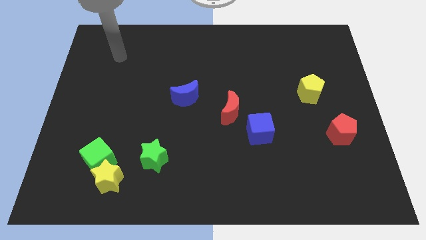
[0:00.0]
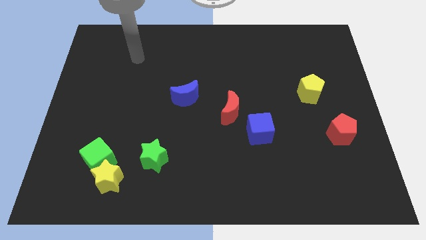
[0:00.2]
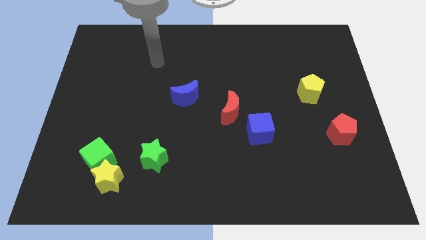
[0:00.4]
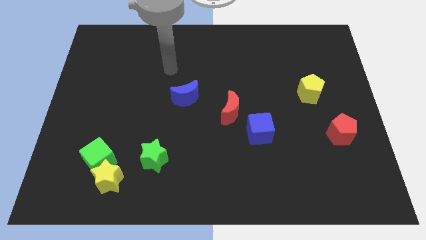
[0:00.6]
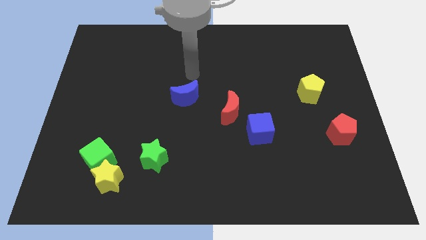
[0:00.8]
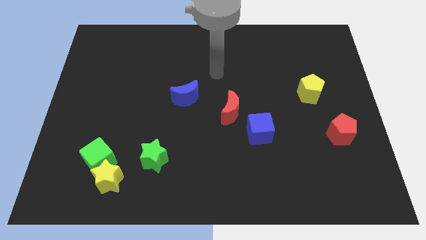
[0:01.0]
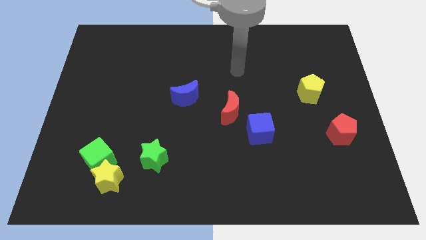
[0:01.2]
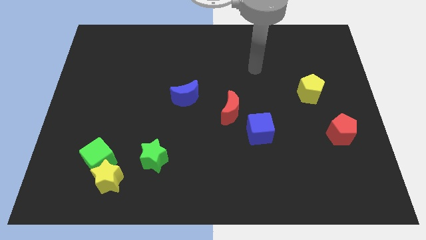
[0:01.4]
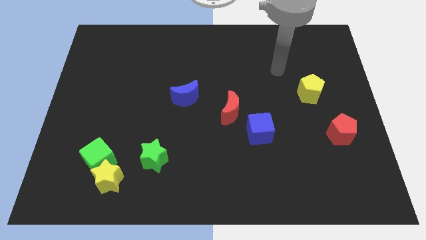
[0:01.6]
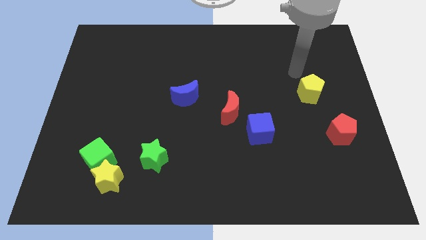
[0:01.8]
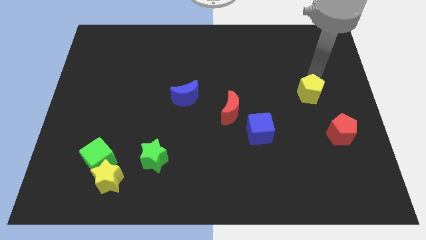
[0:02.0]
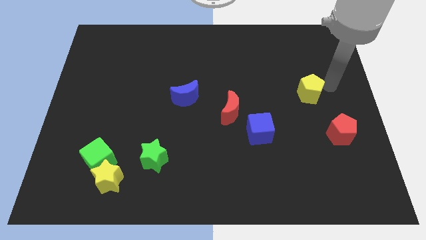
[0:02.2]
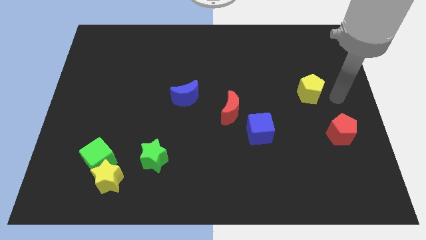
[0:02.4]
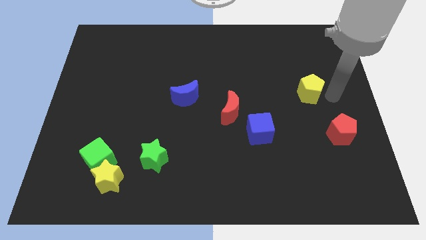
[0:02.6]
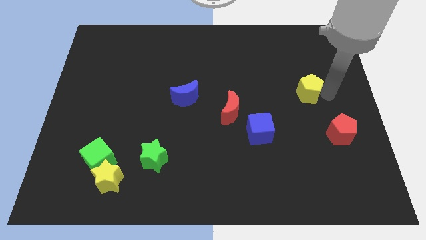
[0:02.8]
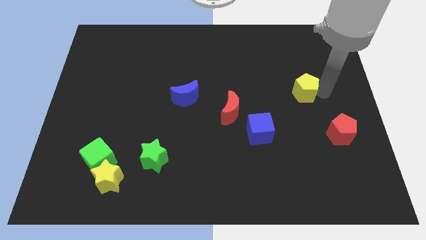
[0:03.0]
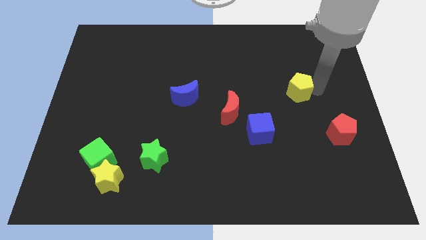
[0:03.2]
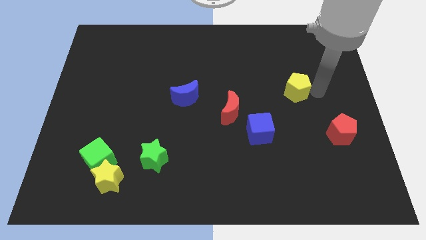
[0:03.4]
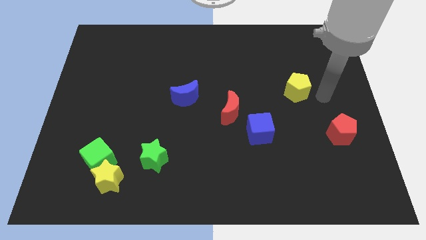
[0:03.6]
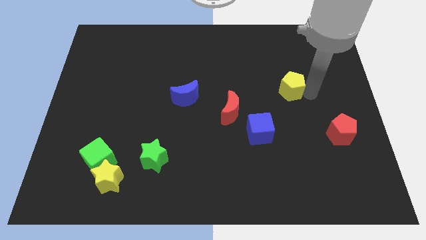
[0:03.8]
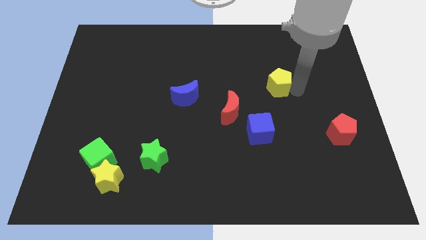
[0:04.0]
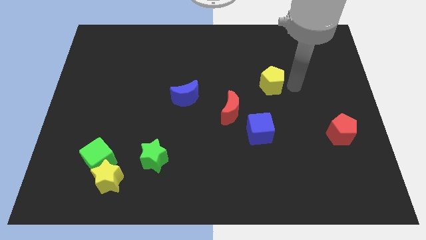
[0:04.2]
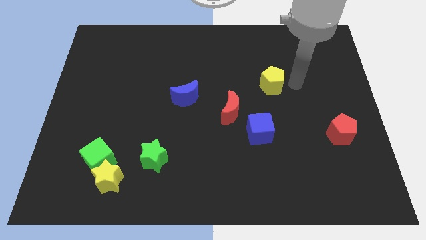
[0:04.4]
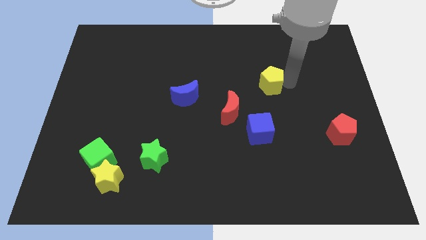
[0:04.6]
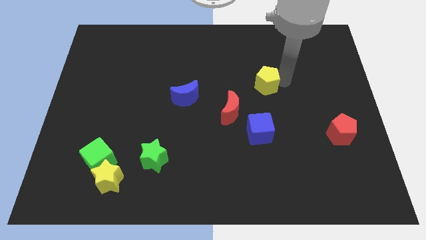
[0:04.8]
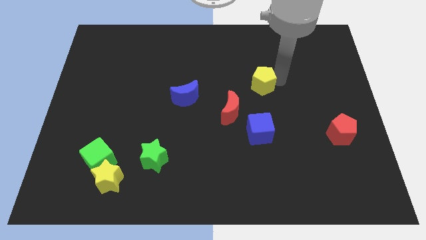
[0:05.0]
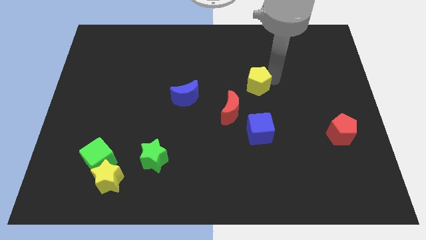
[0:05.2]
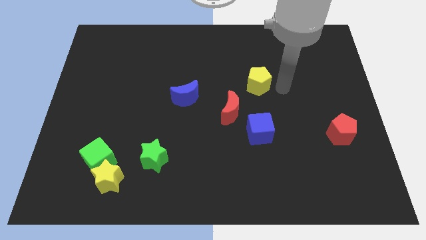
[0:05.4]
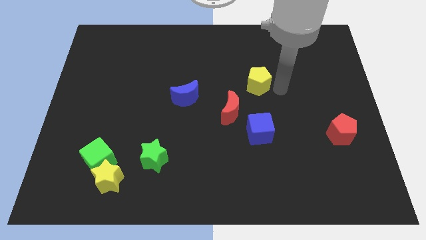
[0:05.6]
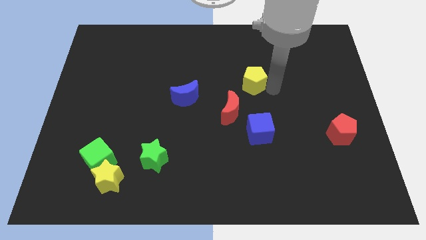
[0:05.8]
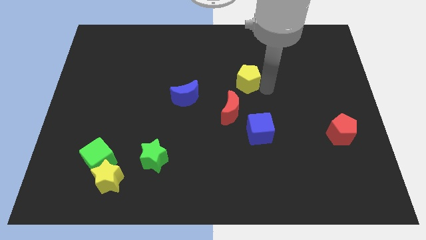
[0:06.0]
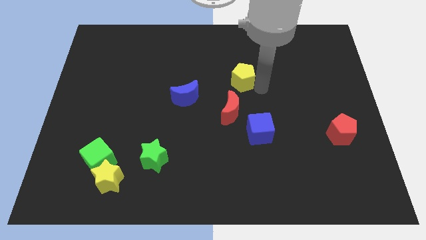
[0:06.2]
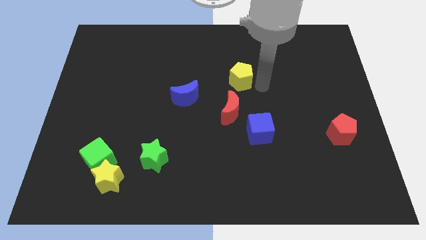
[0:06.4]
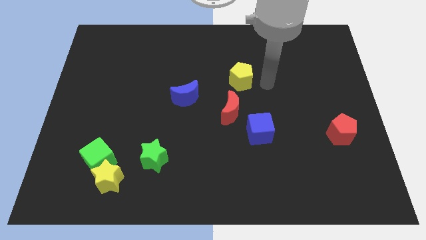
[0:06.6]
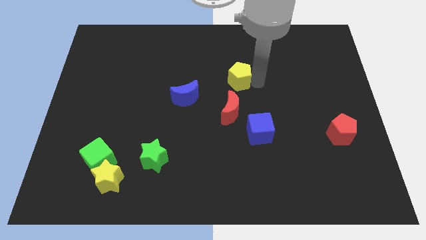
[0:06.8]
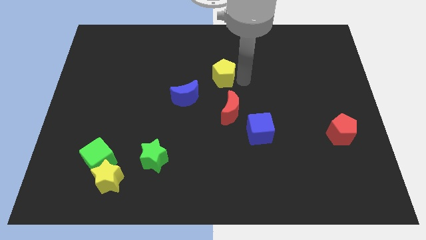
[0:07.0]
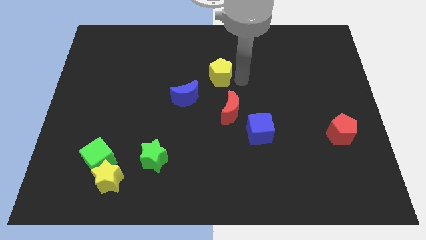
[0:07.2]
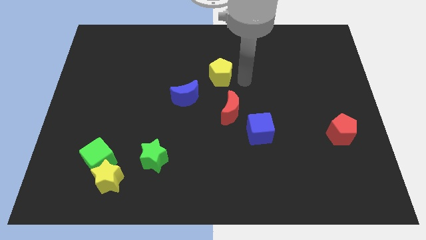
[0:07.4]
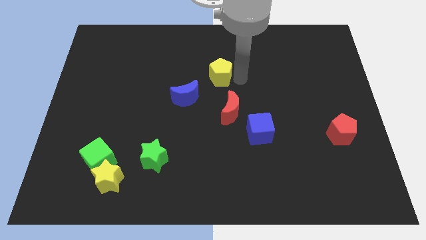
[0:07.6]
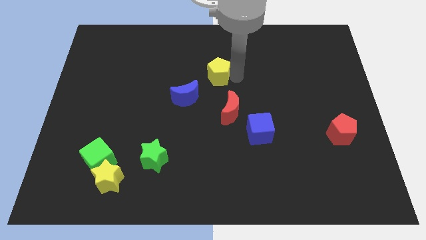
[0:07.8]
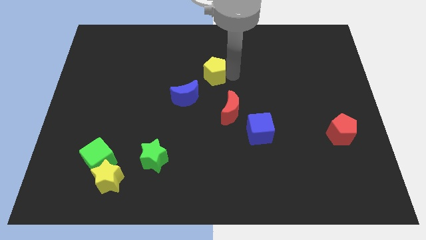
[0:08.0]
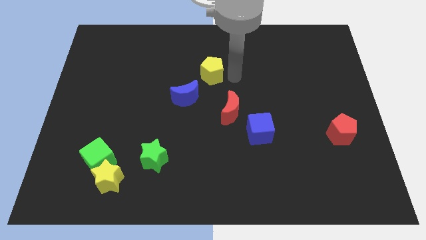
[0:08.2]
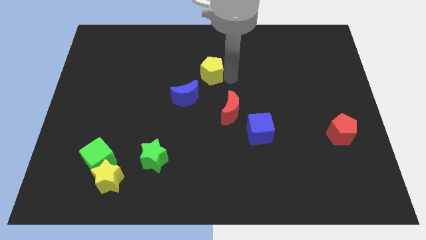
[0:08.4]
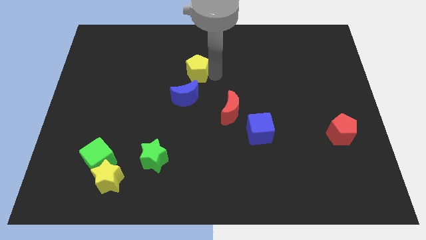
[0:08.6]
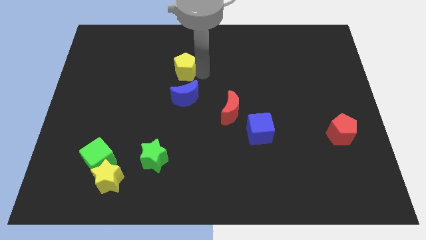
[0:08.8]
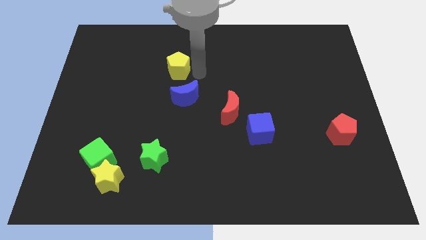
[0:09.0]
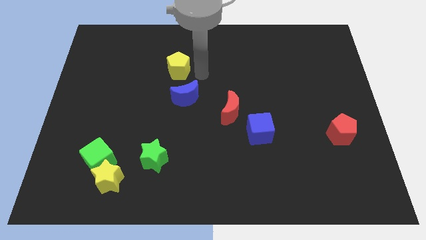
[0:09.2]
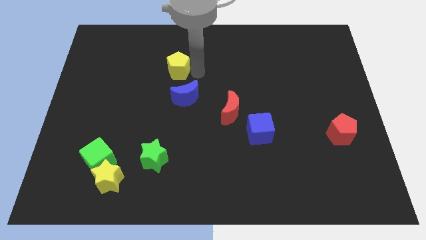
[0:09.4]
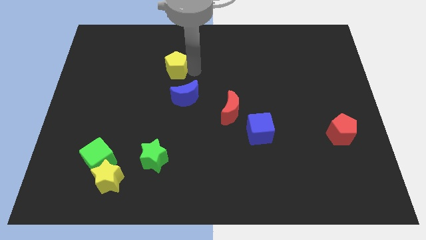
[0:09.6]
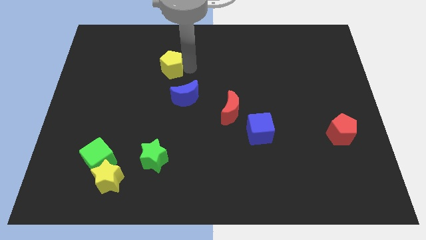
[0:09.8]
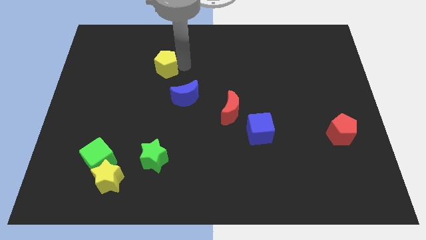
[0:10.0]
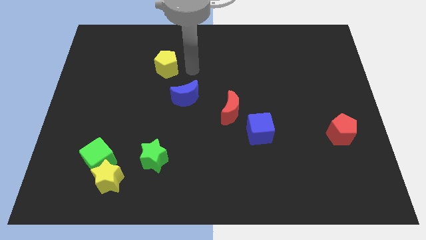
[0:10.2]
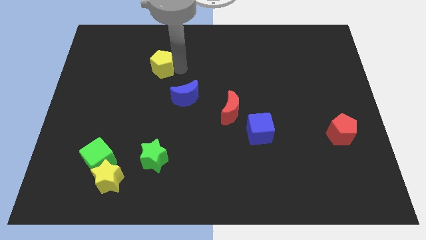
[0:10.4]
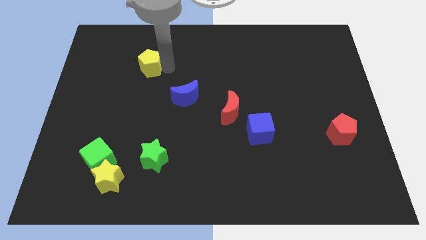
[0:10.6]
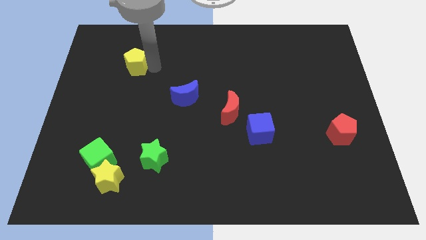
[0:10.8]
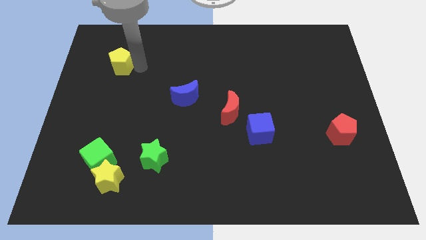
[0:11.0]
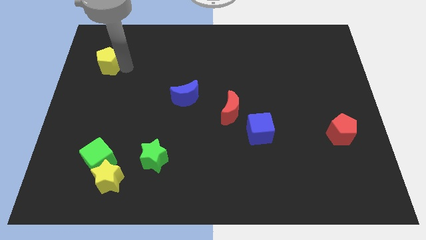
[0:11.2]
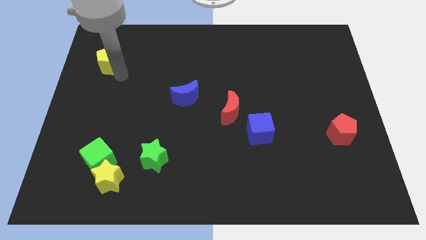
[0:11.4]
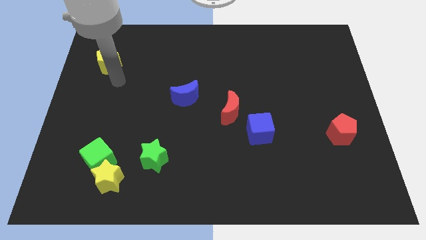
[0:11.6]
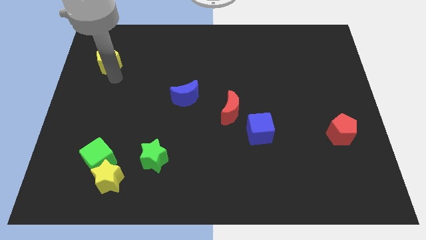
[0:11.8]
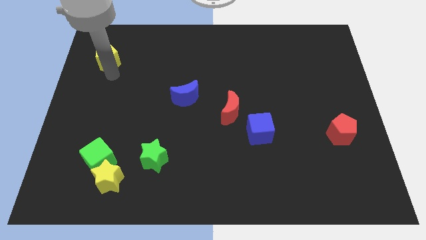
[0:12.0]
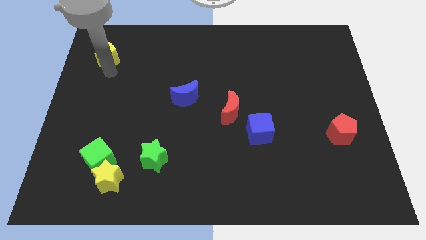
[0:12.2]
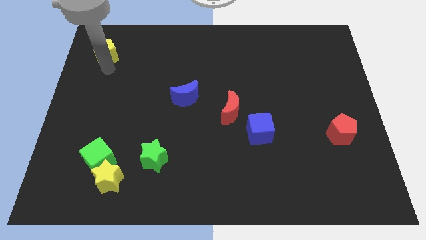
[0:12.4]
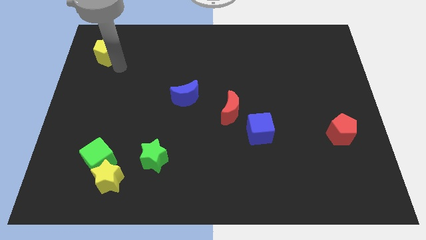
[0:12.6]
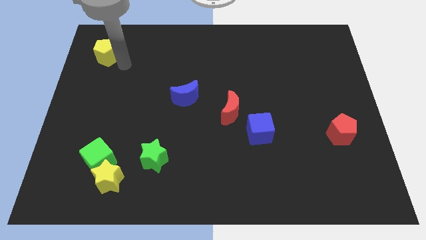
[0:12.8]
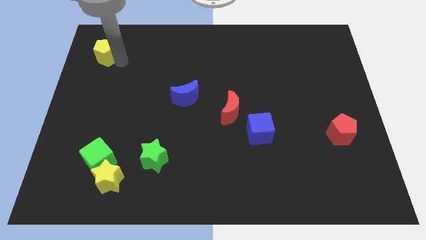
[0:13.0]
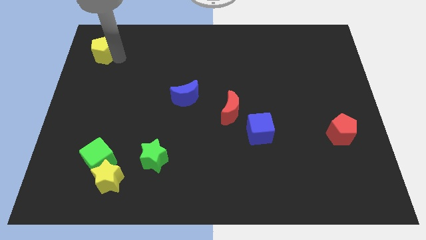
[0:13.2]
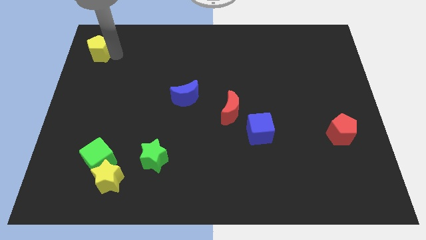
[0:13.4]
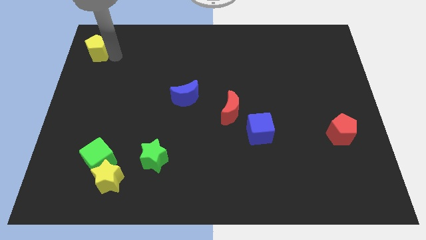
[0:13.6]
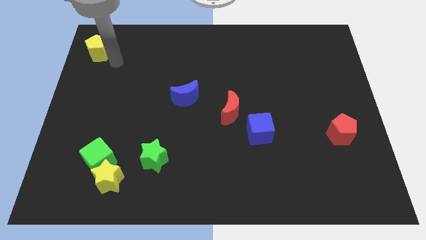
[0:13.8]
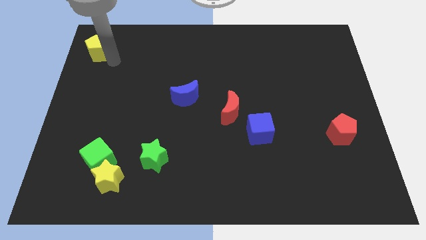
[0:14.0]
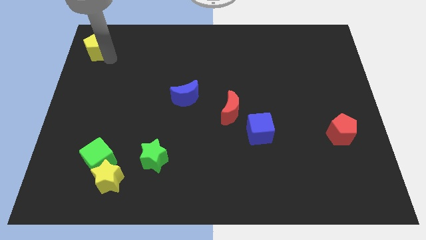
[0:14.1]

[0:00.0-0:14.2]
slide the yellow pentagon to the top left of the board

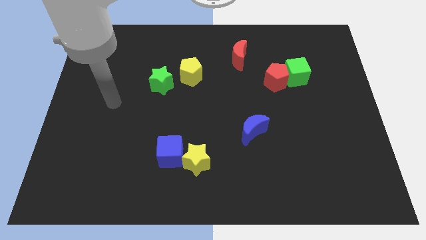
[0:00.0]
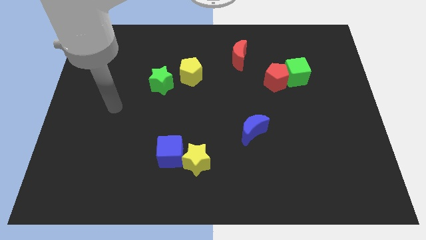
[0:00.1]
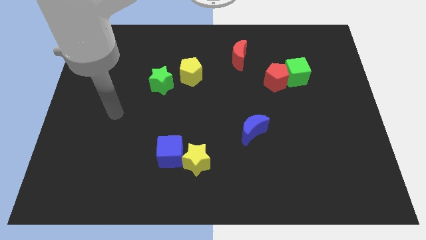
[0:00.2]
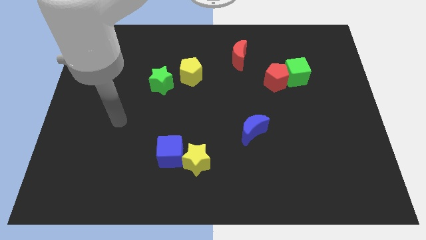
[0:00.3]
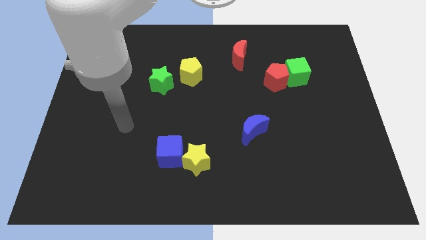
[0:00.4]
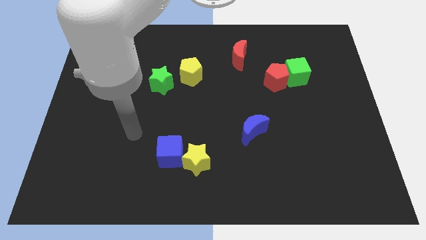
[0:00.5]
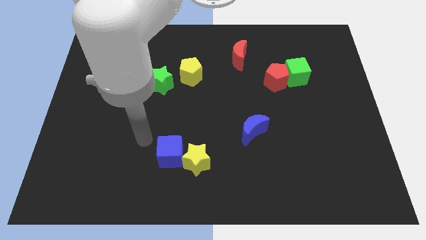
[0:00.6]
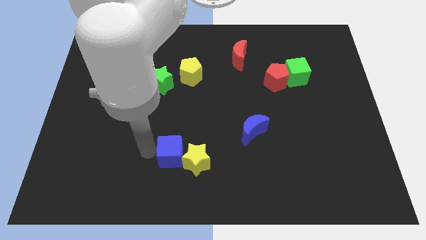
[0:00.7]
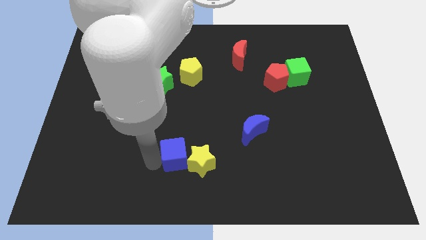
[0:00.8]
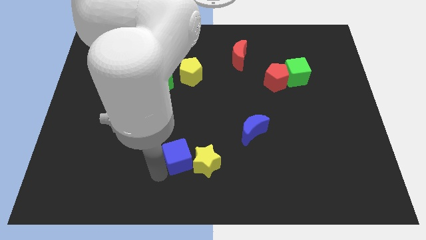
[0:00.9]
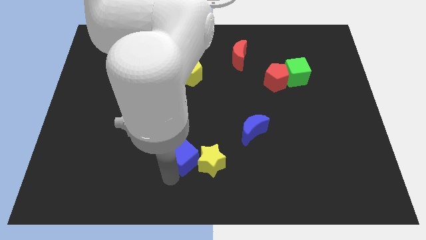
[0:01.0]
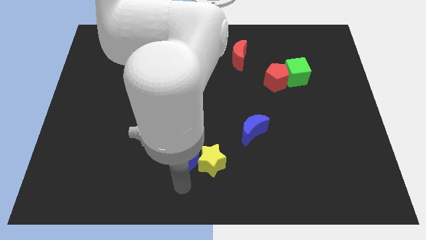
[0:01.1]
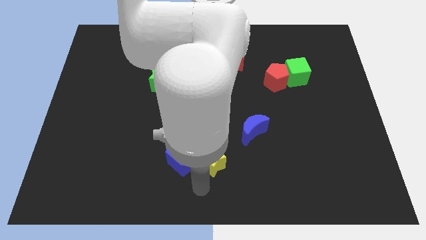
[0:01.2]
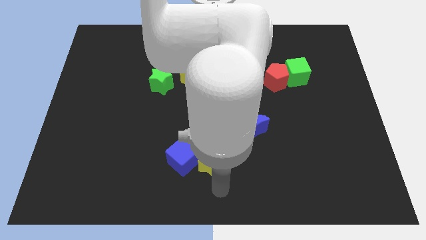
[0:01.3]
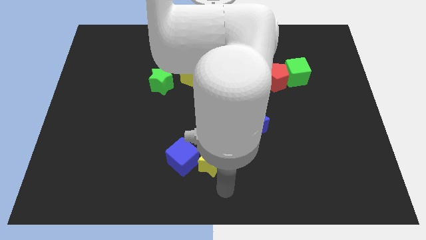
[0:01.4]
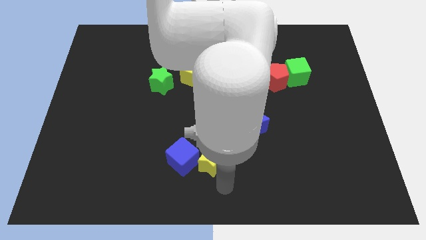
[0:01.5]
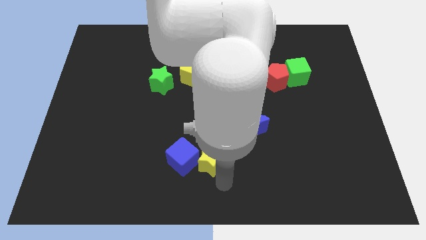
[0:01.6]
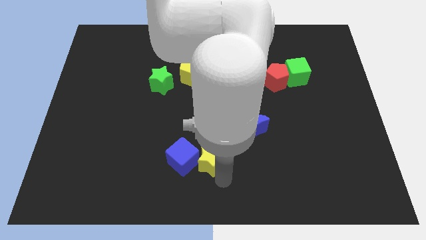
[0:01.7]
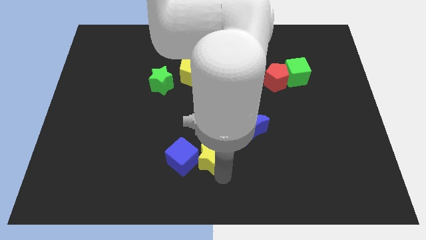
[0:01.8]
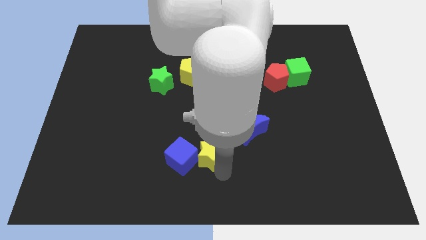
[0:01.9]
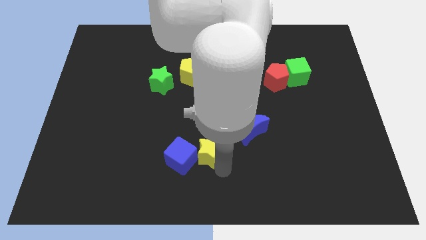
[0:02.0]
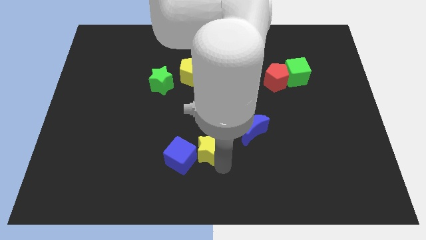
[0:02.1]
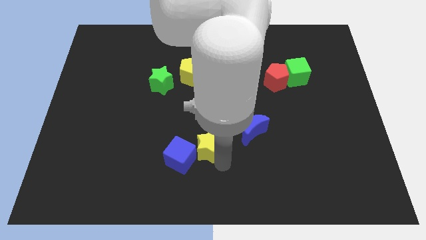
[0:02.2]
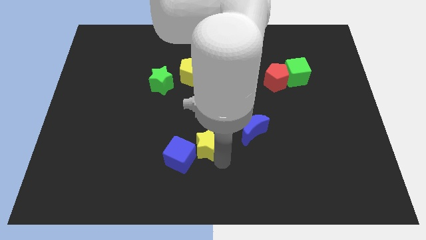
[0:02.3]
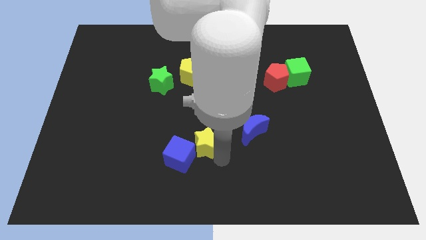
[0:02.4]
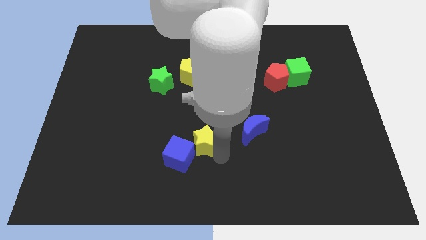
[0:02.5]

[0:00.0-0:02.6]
put the yellow star to the middle
